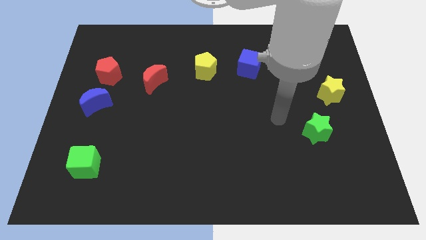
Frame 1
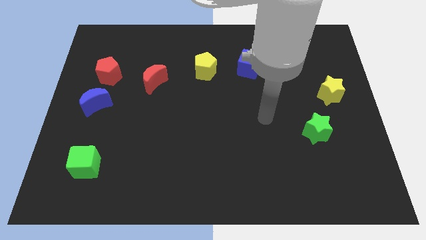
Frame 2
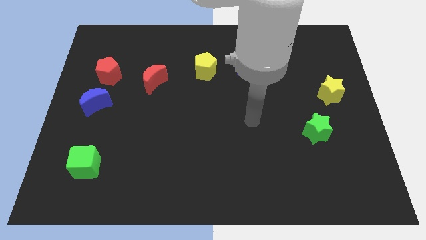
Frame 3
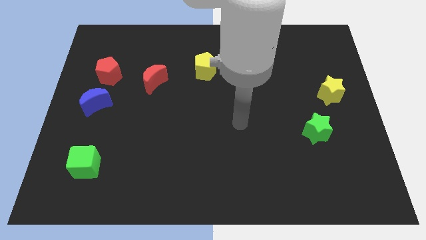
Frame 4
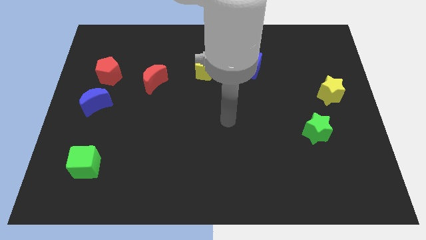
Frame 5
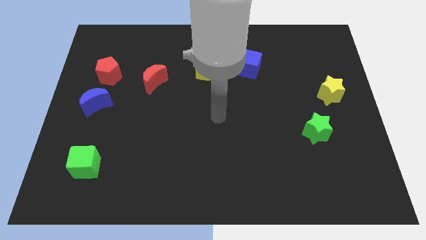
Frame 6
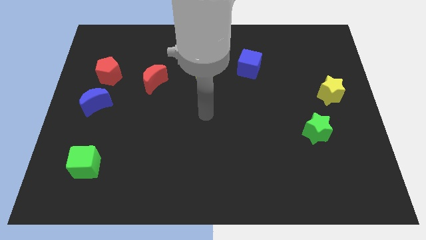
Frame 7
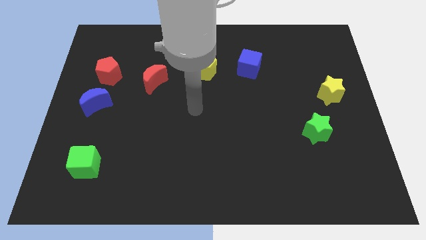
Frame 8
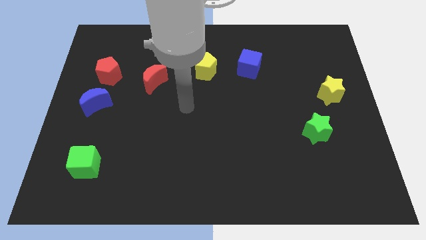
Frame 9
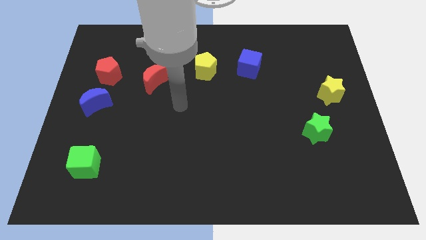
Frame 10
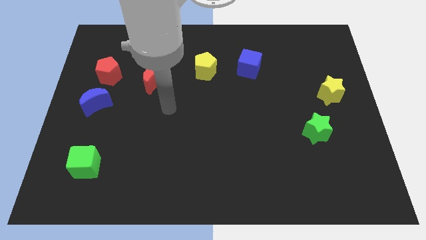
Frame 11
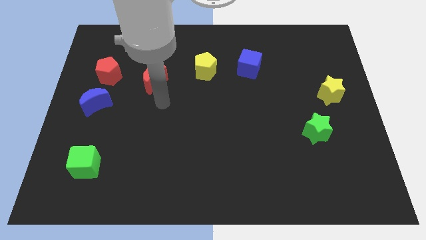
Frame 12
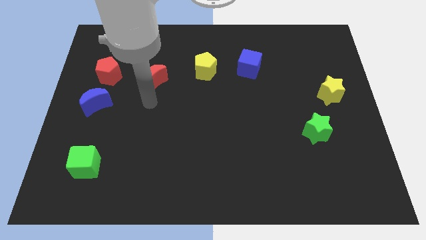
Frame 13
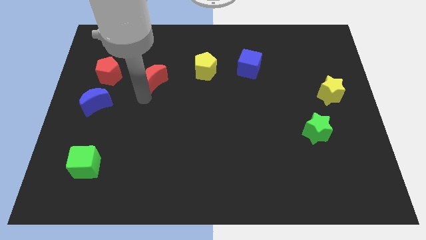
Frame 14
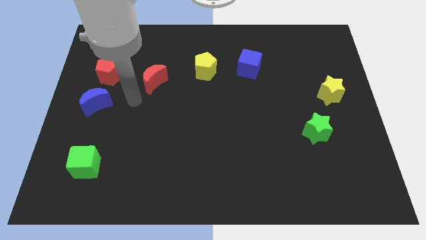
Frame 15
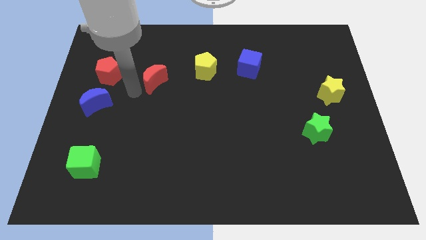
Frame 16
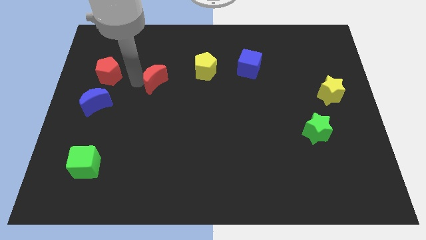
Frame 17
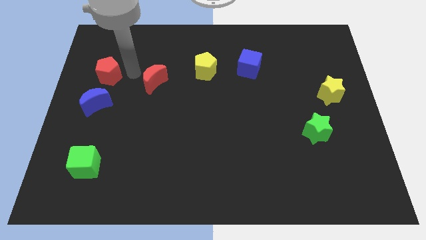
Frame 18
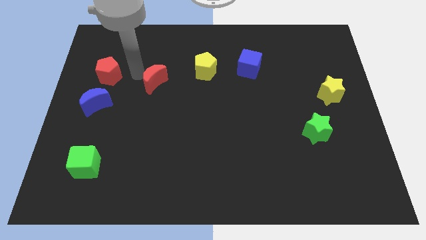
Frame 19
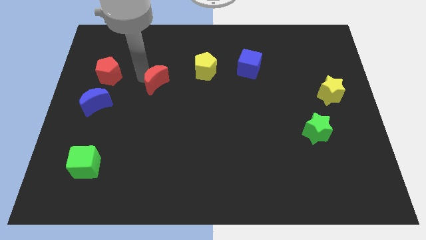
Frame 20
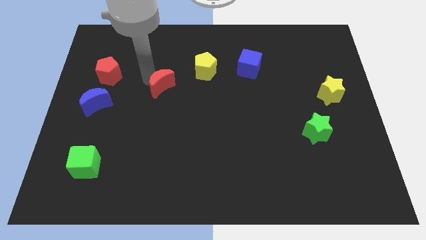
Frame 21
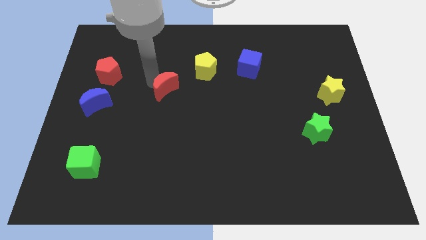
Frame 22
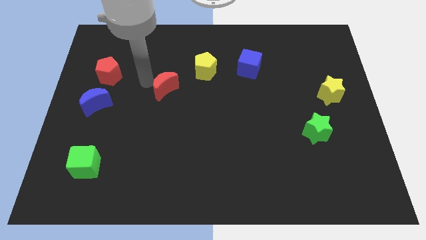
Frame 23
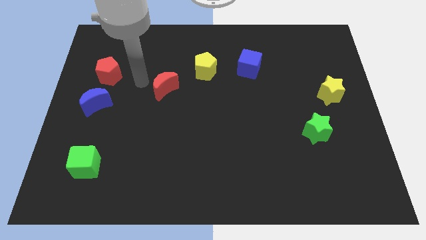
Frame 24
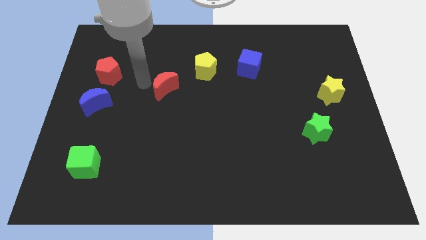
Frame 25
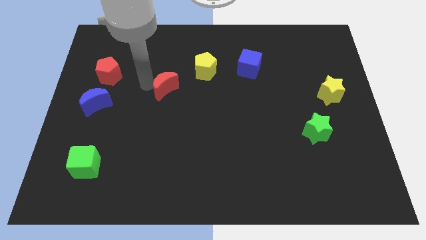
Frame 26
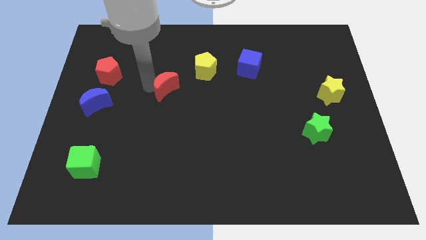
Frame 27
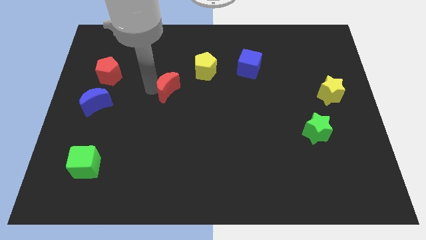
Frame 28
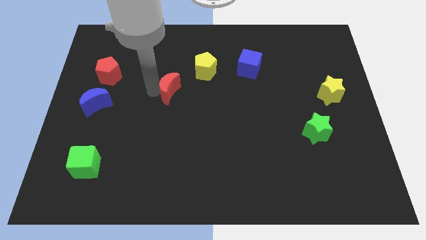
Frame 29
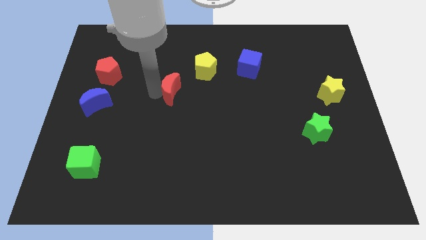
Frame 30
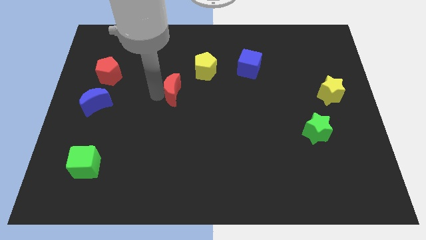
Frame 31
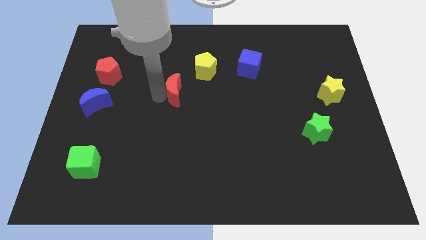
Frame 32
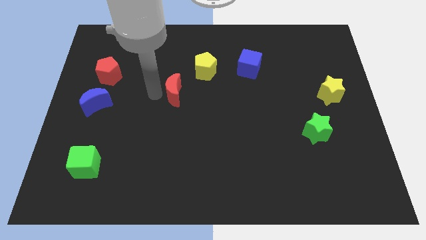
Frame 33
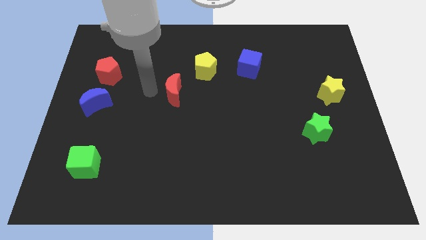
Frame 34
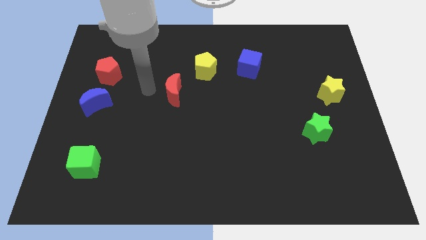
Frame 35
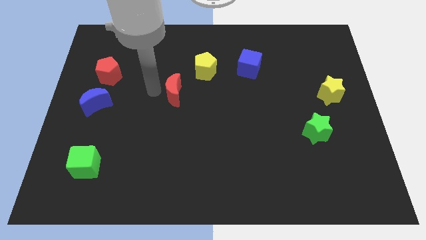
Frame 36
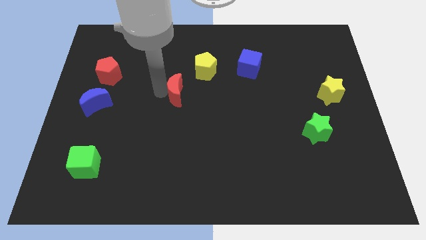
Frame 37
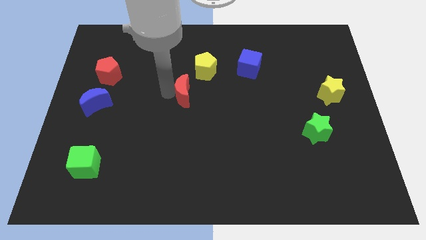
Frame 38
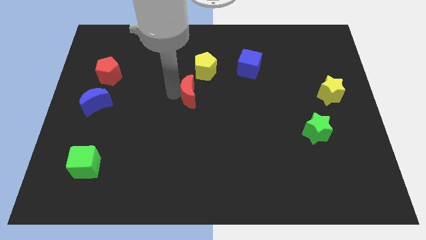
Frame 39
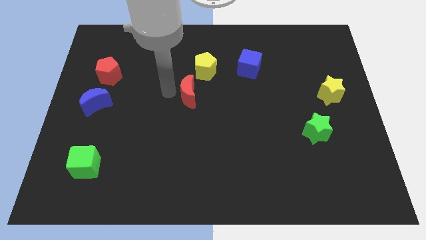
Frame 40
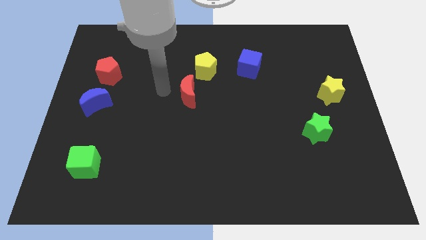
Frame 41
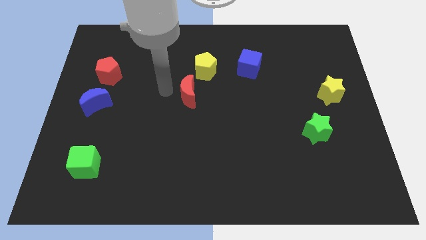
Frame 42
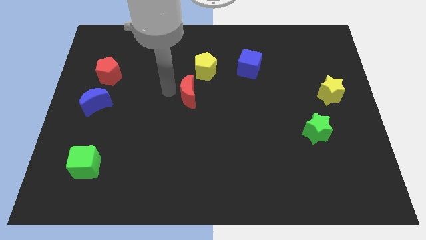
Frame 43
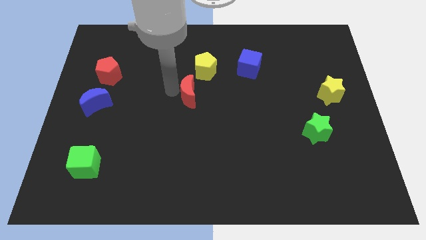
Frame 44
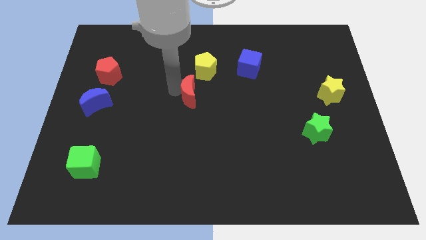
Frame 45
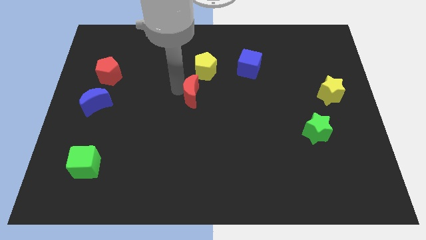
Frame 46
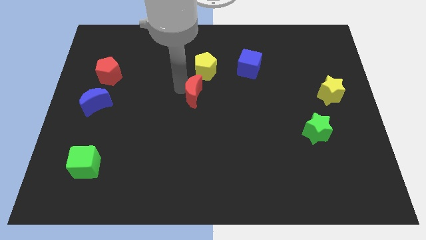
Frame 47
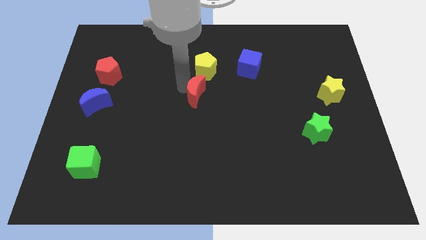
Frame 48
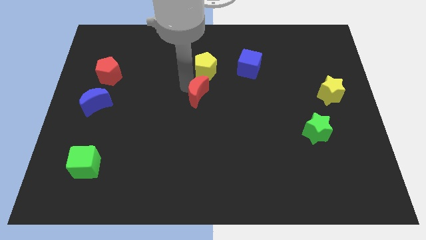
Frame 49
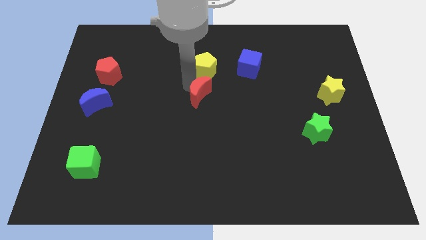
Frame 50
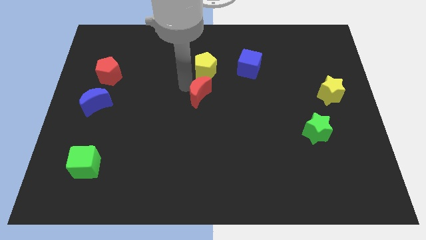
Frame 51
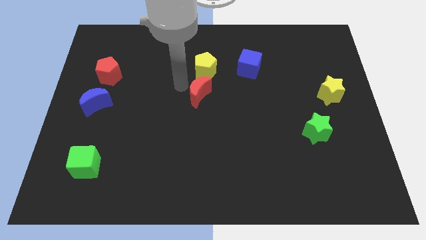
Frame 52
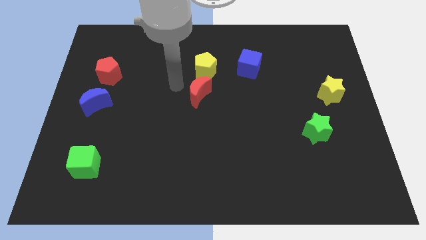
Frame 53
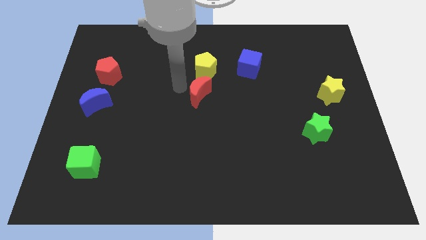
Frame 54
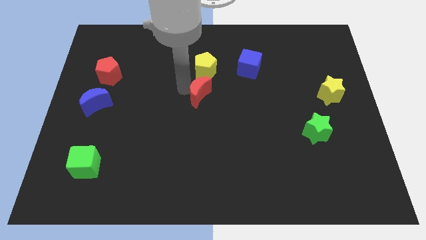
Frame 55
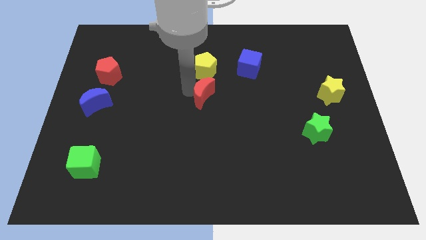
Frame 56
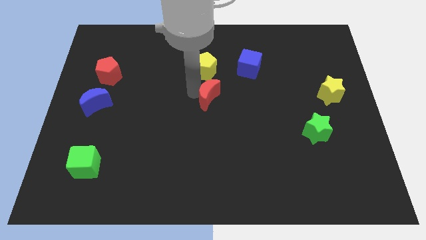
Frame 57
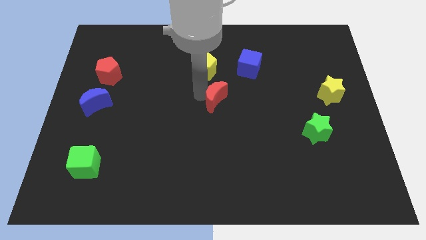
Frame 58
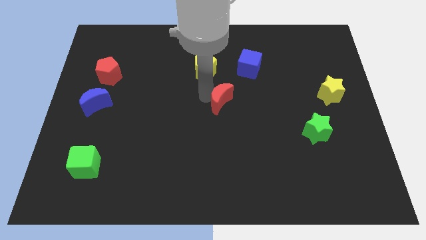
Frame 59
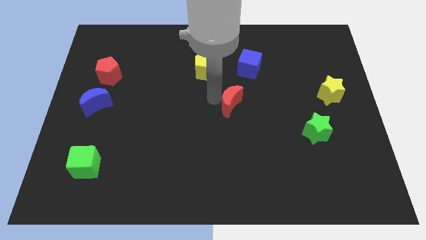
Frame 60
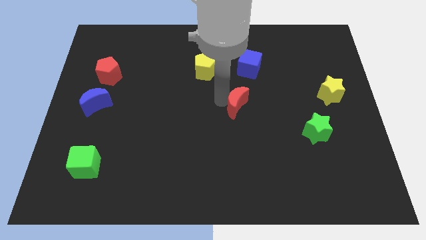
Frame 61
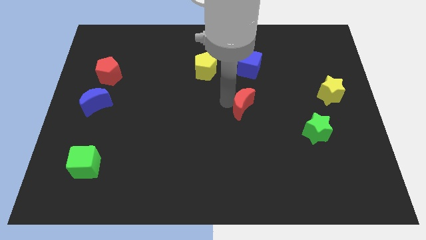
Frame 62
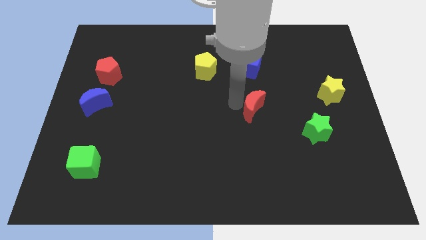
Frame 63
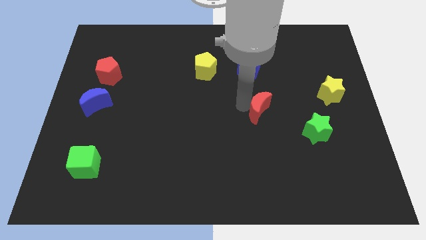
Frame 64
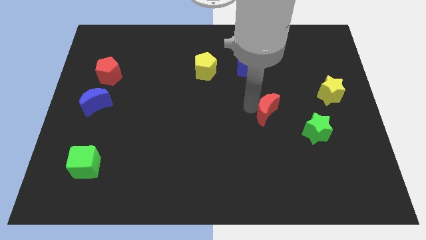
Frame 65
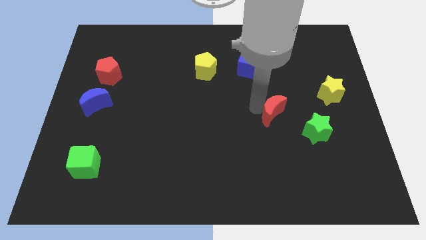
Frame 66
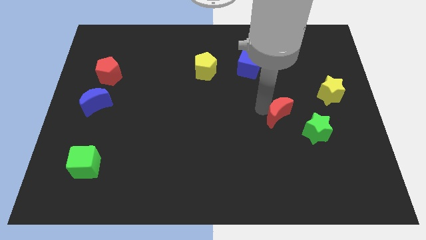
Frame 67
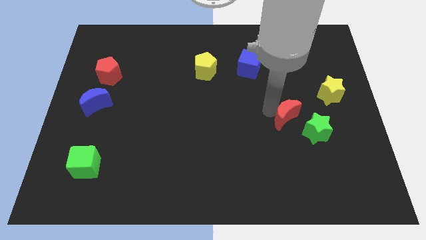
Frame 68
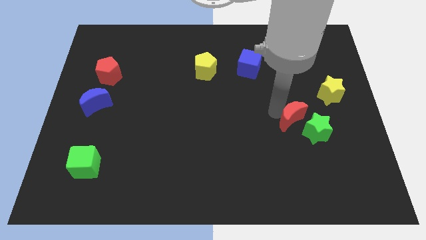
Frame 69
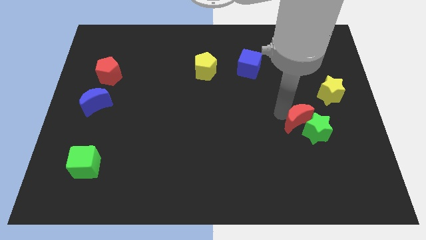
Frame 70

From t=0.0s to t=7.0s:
push the red moon towards the green star

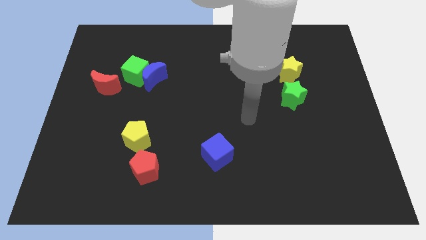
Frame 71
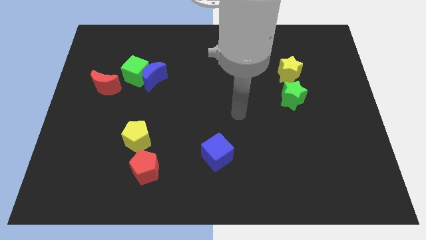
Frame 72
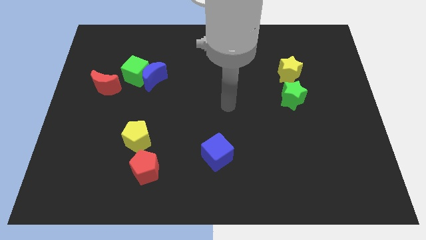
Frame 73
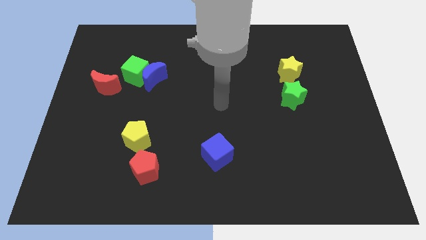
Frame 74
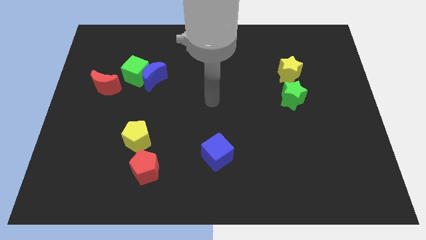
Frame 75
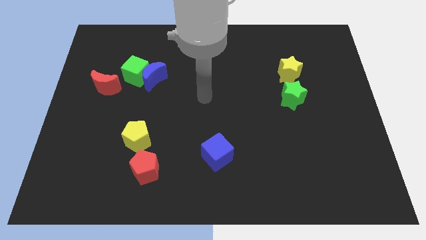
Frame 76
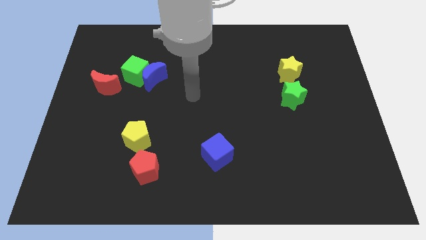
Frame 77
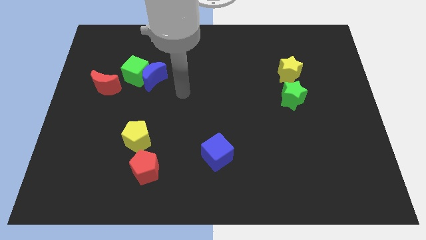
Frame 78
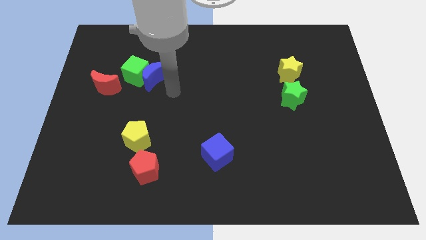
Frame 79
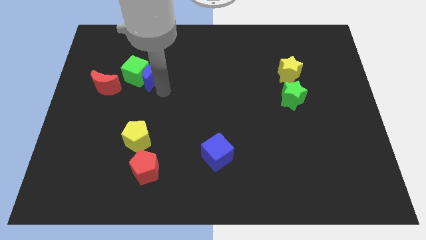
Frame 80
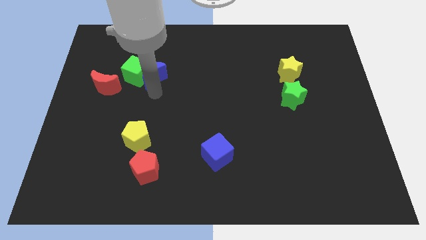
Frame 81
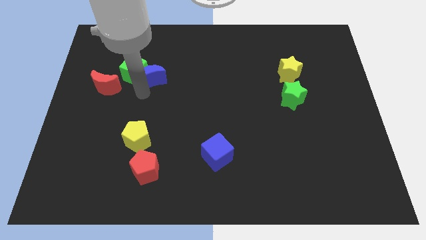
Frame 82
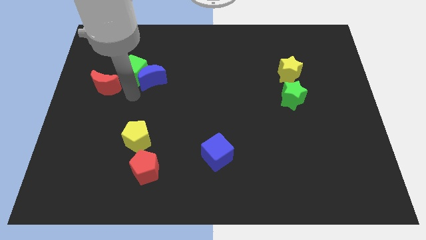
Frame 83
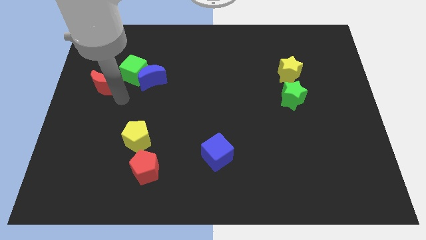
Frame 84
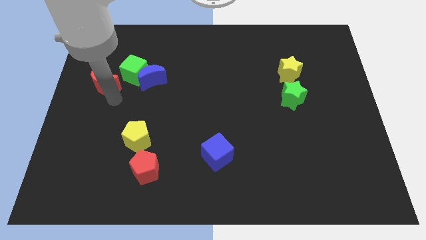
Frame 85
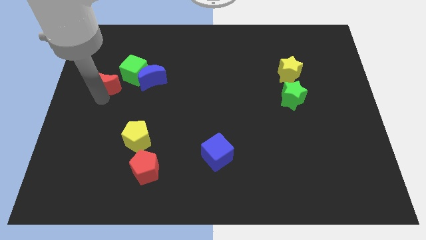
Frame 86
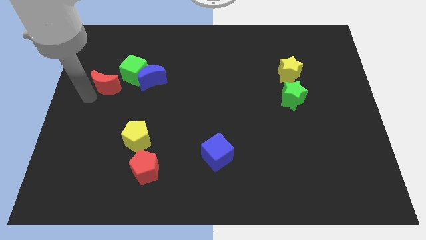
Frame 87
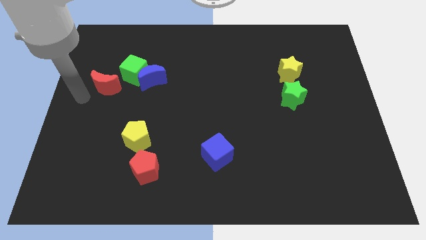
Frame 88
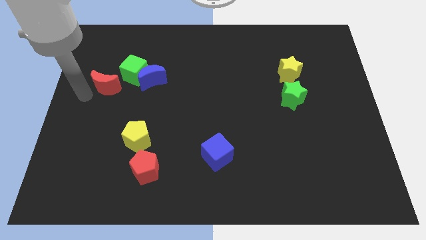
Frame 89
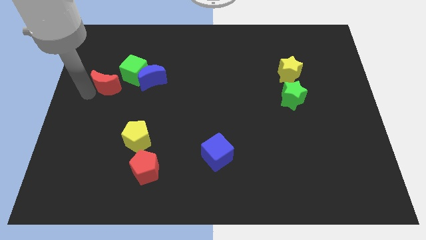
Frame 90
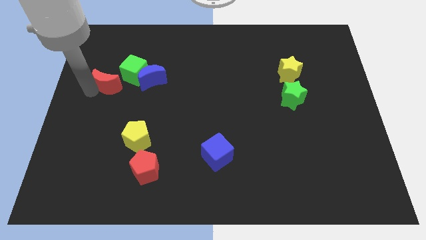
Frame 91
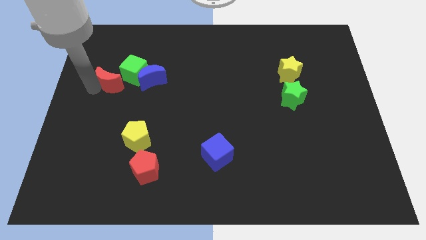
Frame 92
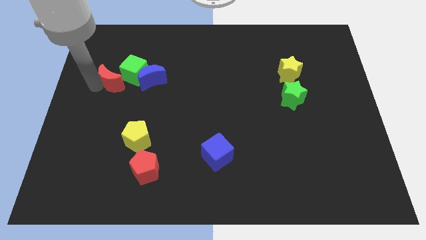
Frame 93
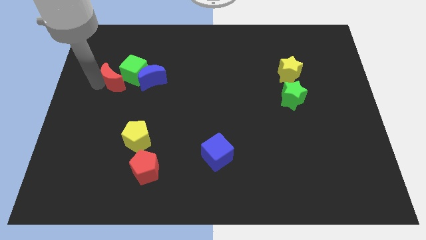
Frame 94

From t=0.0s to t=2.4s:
move the red moon close to the green cube
